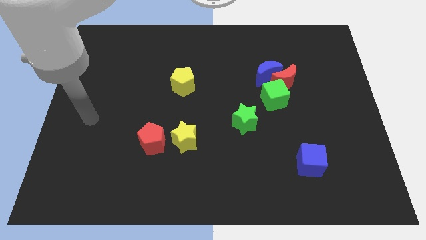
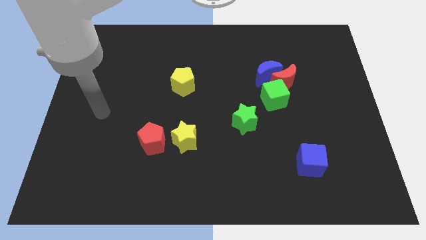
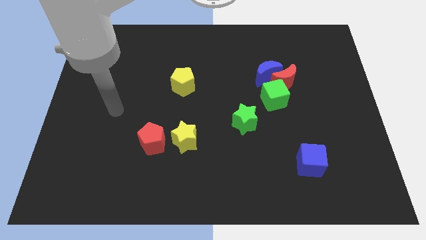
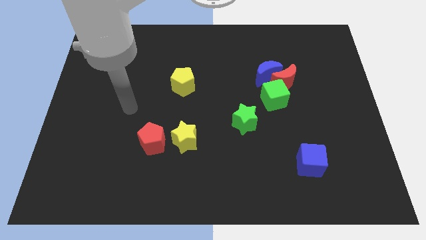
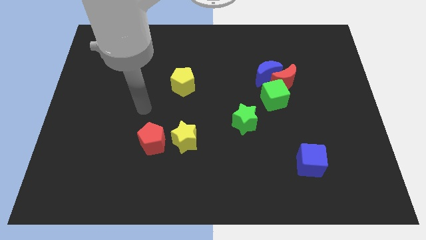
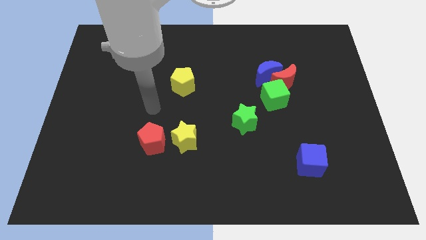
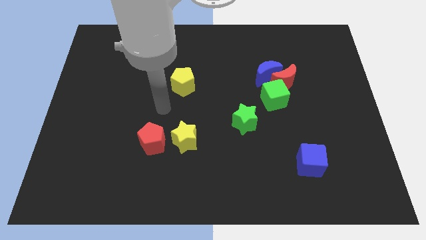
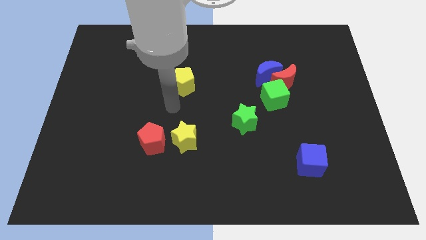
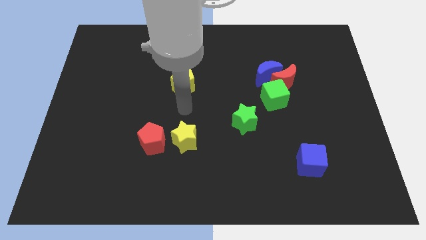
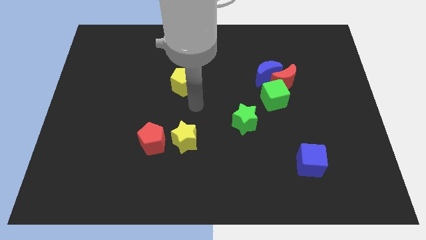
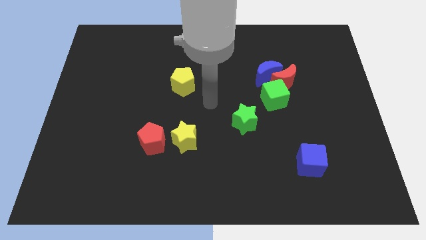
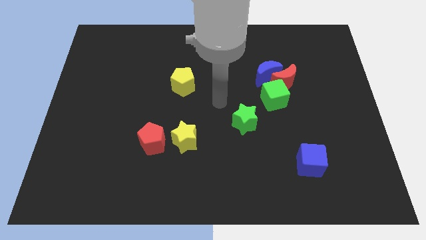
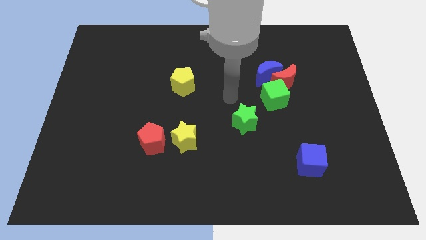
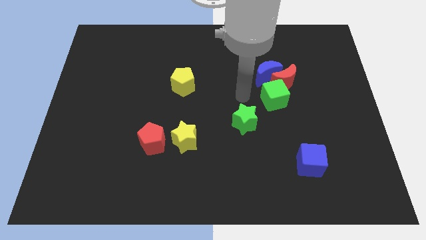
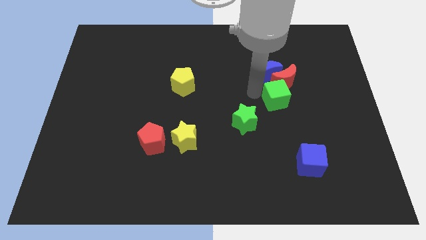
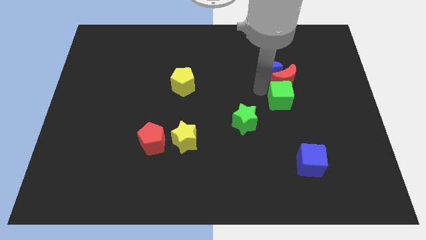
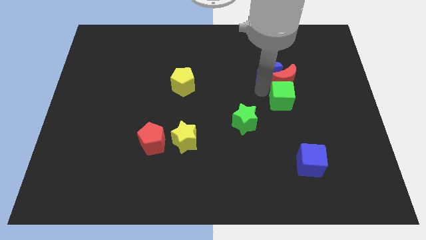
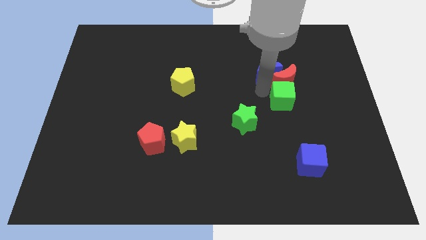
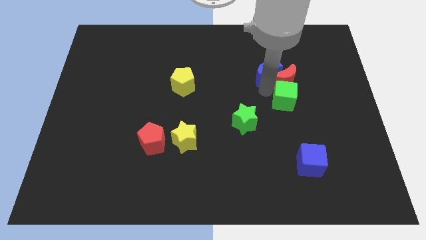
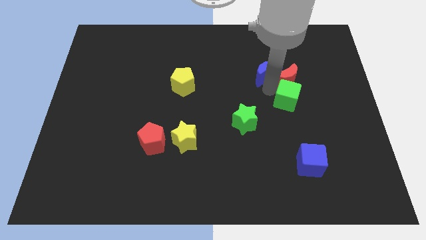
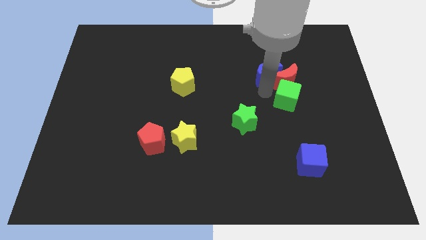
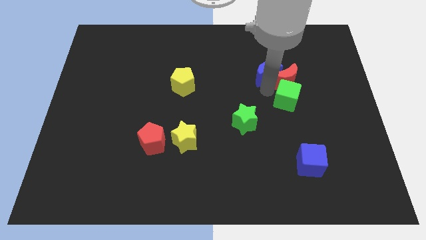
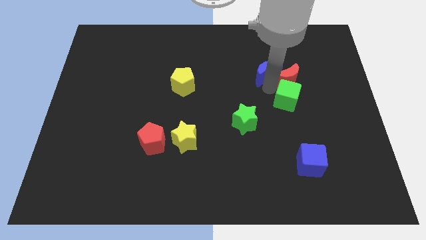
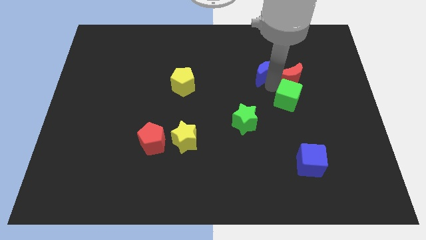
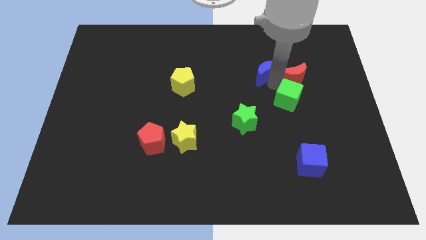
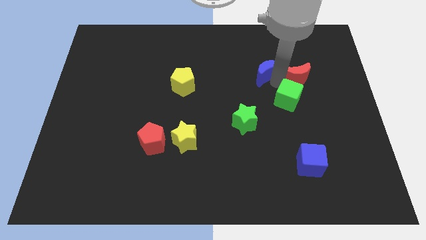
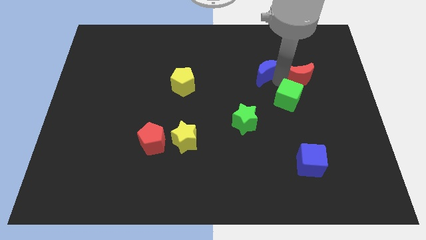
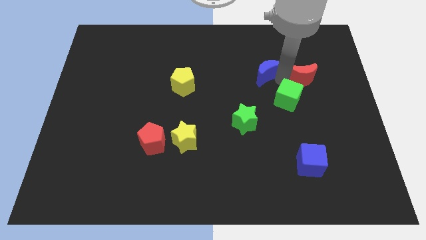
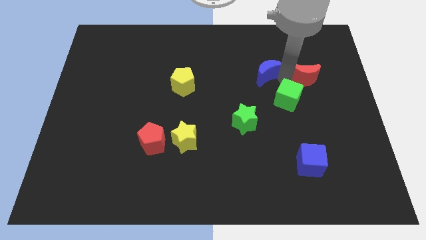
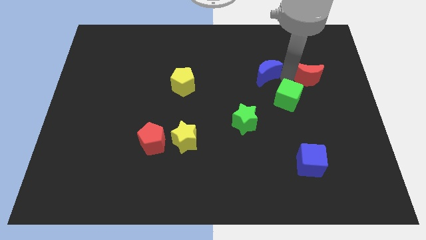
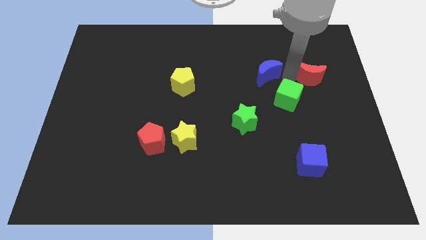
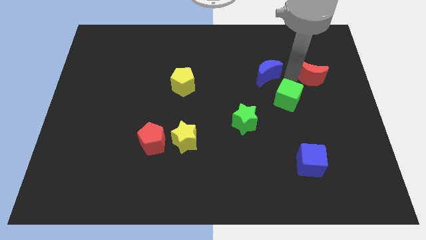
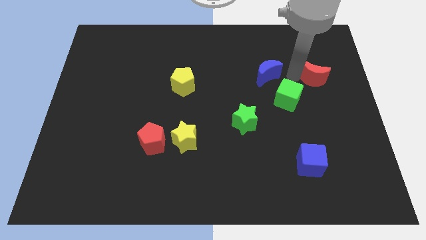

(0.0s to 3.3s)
move the red moon away from the blue moon and green cube

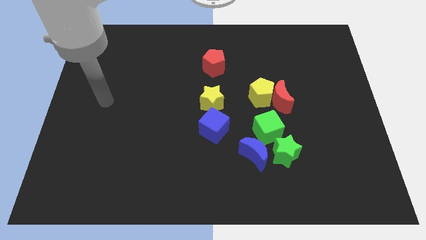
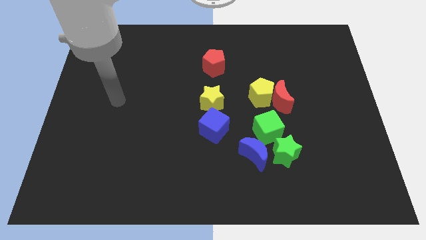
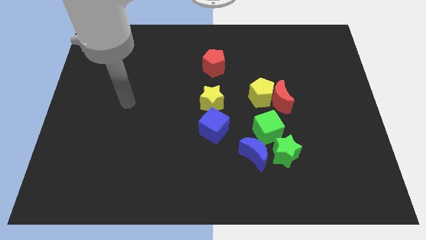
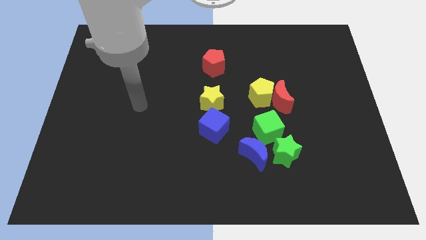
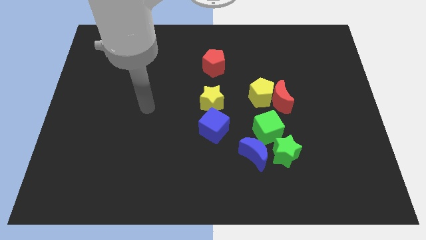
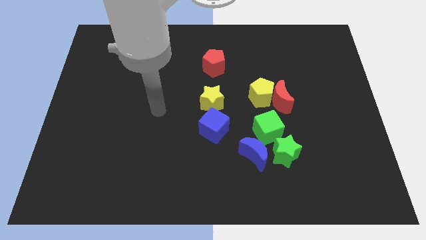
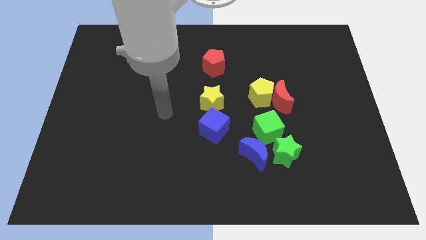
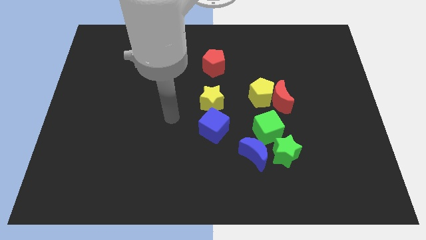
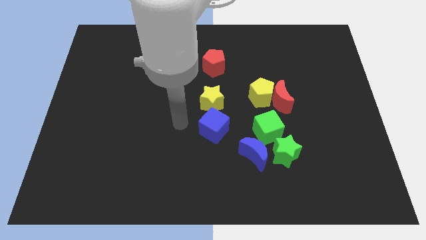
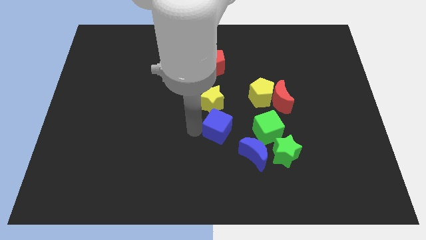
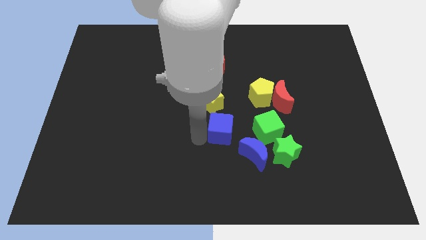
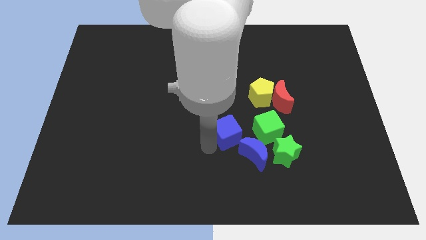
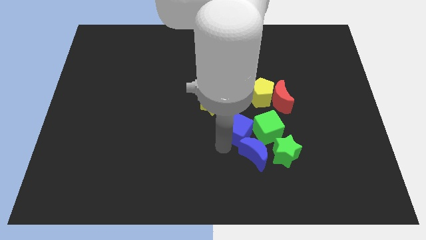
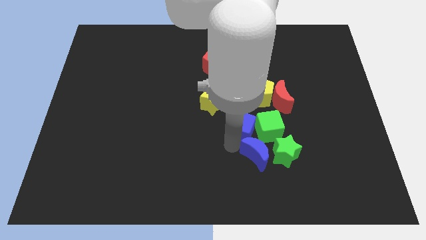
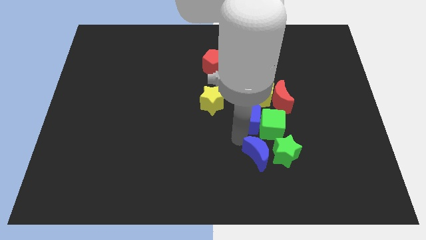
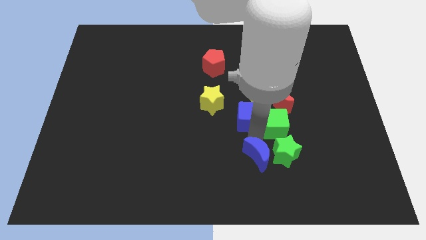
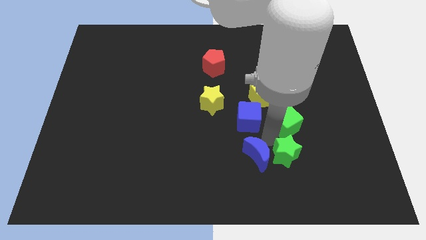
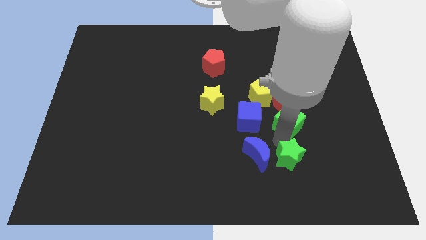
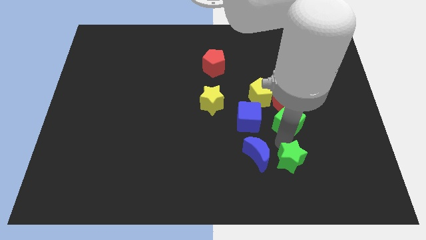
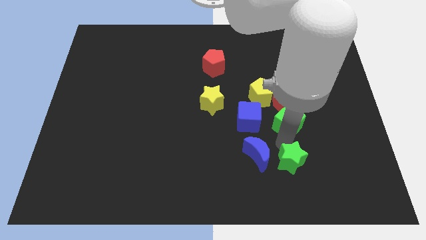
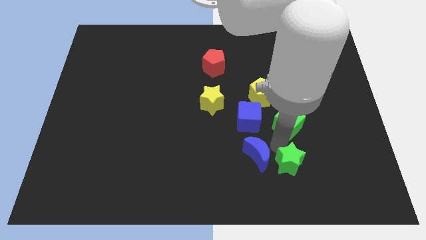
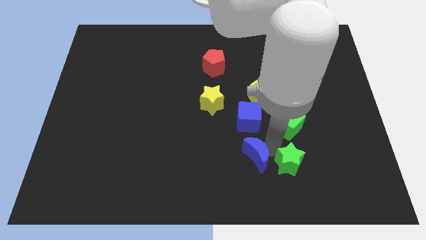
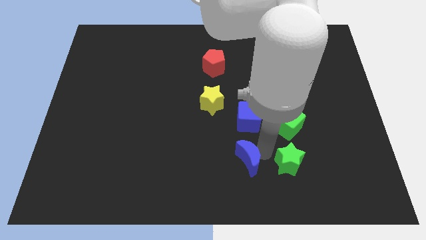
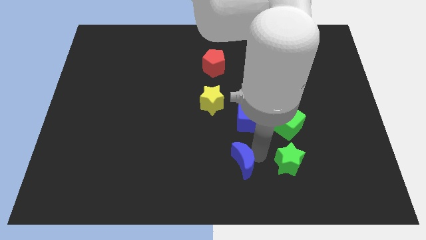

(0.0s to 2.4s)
move the blue moon away from the green star and green cube

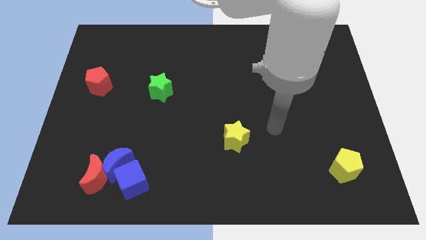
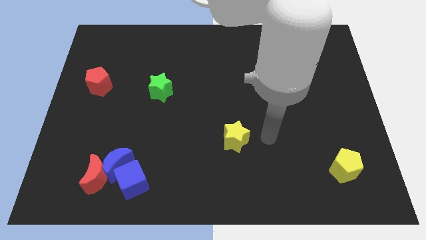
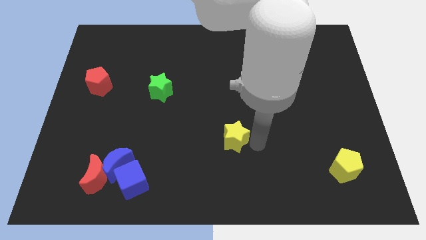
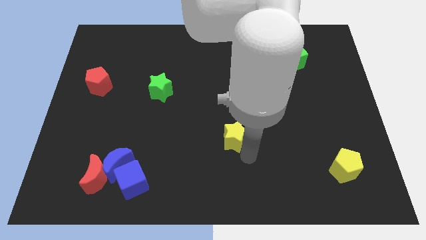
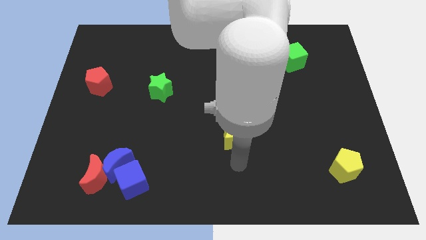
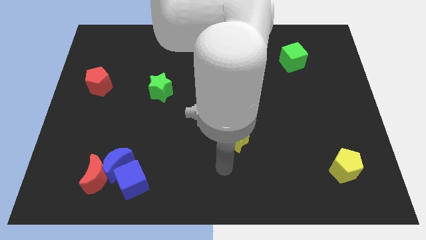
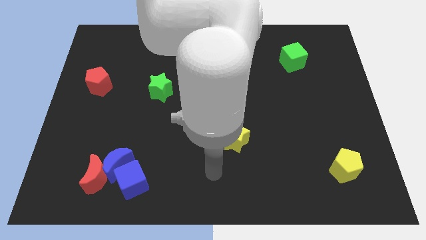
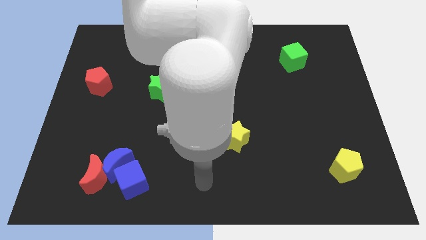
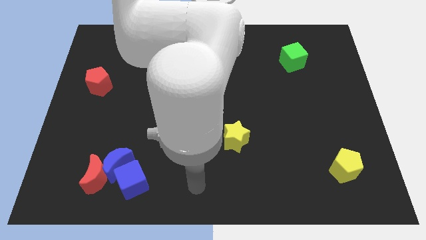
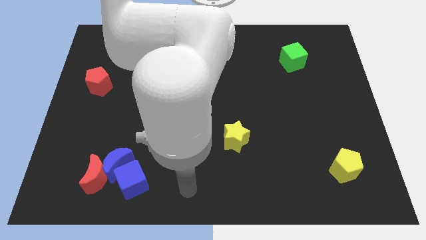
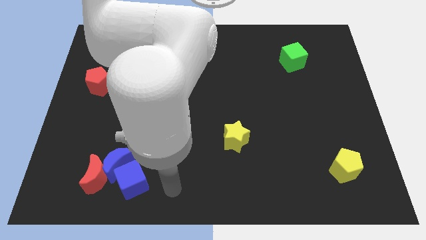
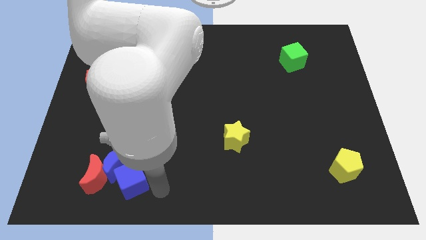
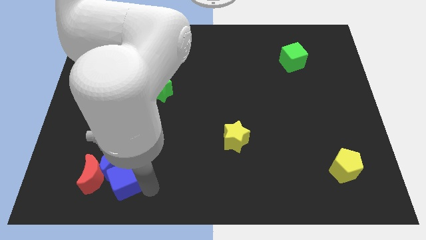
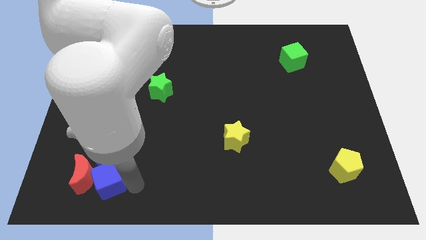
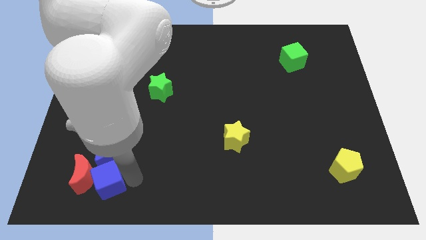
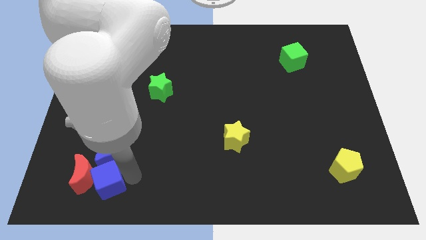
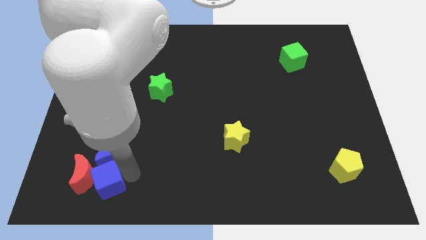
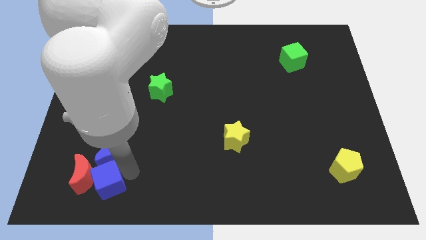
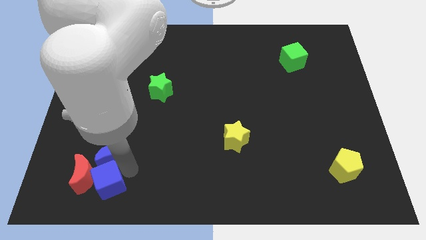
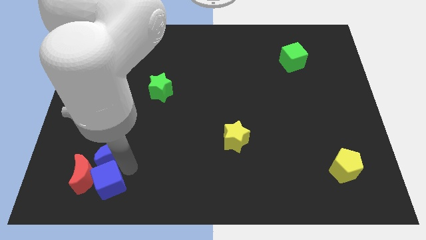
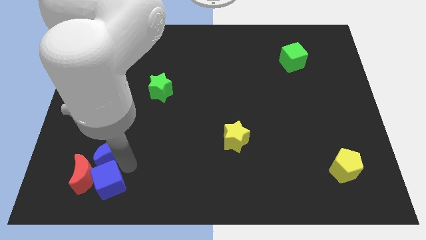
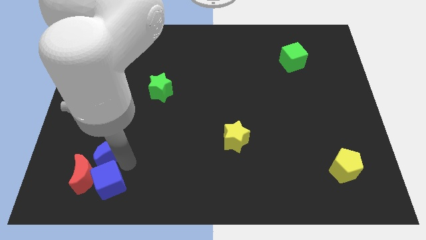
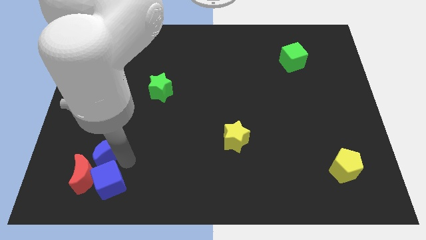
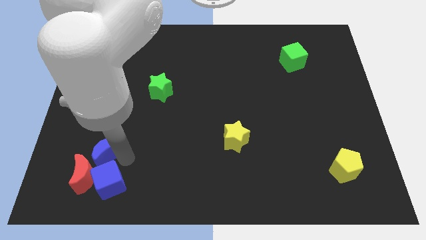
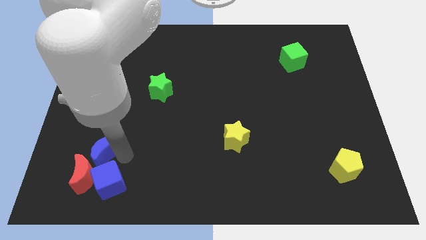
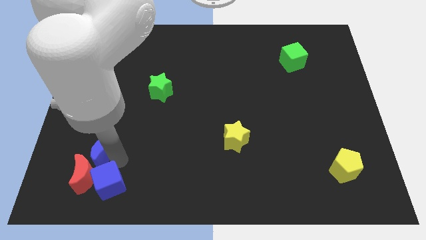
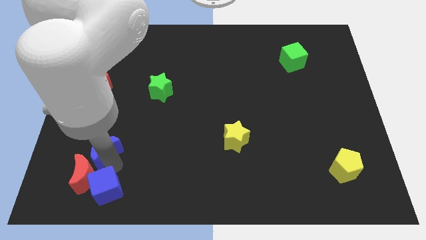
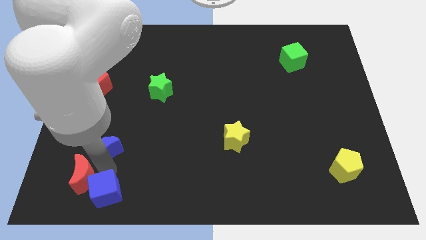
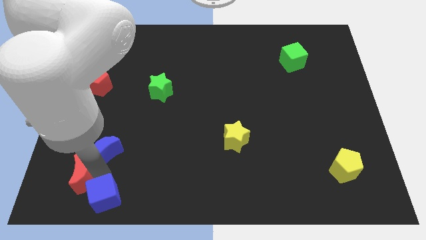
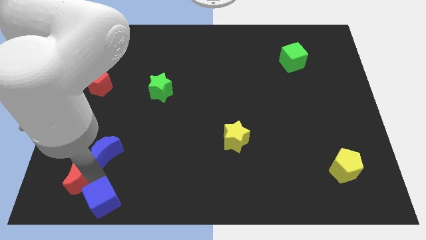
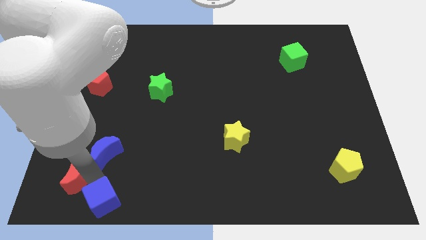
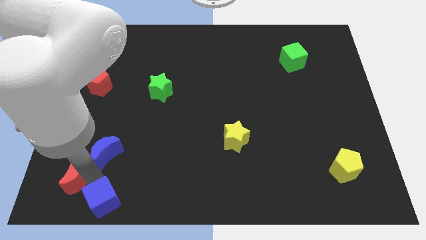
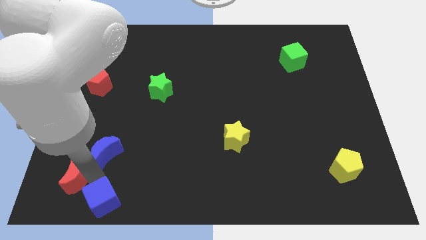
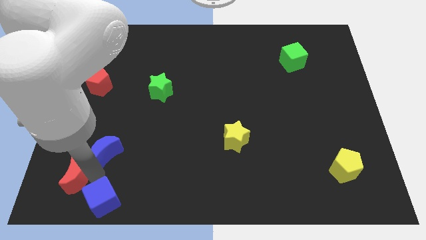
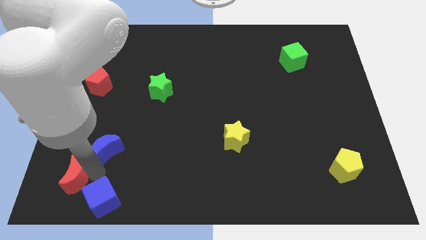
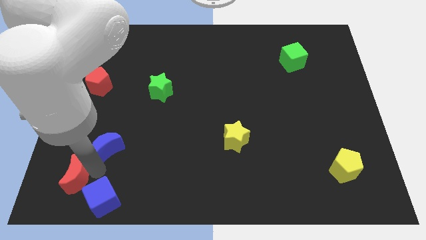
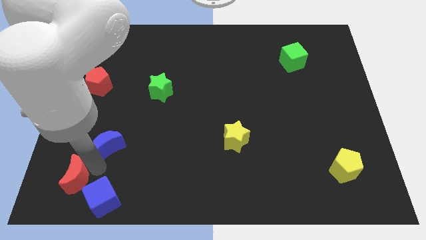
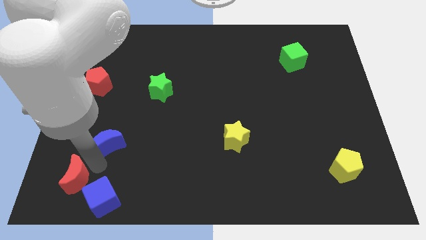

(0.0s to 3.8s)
separate the blue moon from the red moon and blue cube

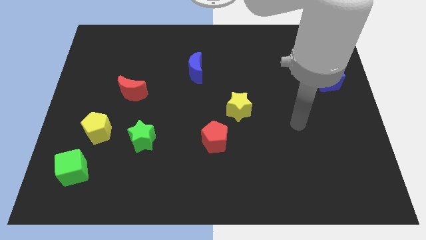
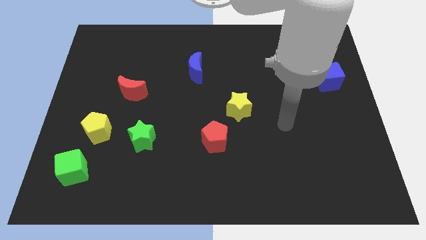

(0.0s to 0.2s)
separate the red pentagon from the yellow star
